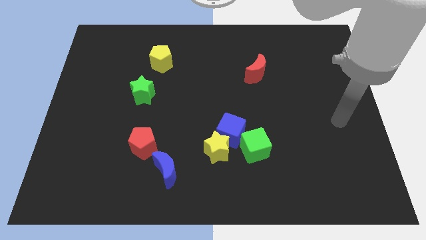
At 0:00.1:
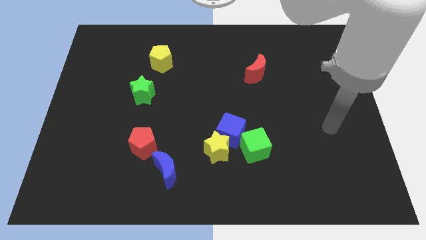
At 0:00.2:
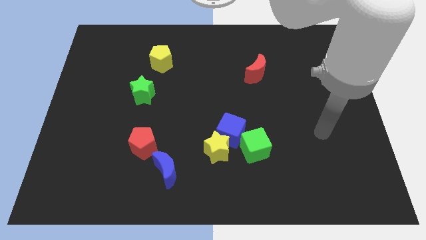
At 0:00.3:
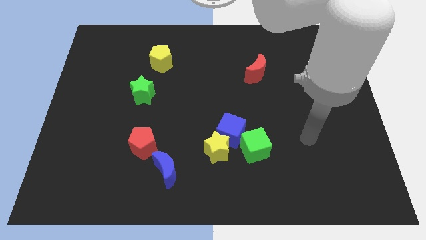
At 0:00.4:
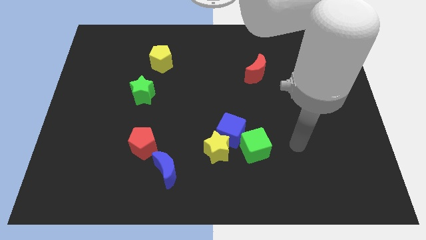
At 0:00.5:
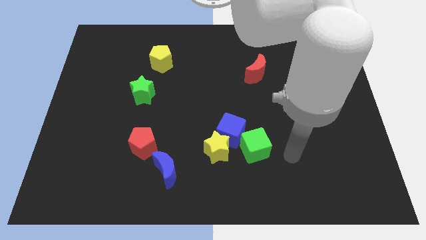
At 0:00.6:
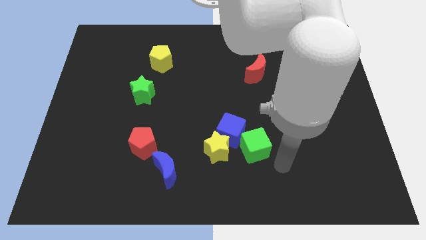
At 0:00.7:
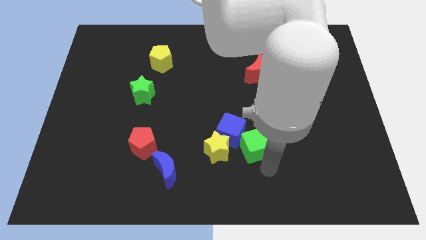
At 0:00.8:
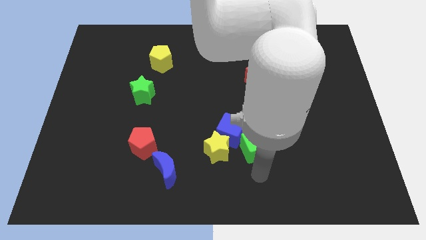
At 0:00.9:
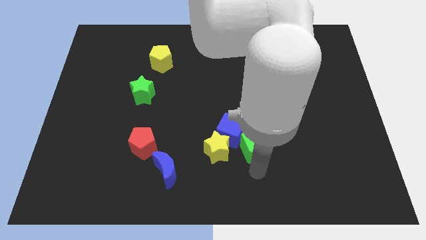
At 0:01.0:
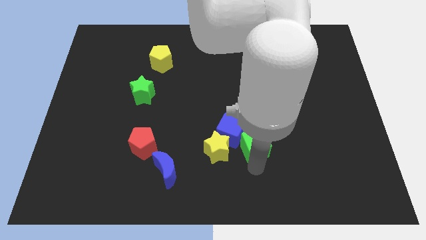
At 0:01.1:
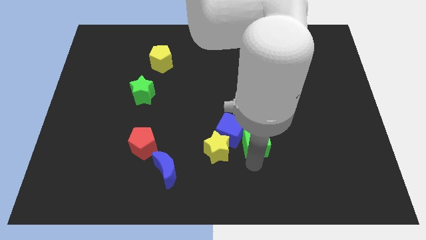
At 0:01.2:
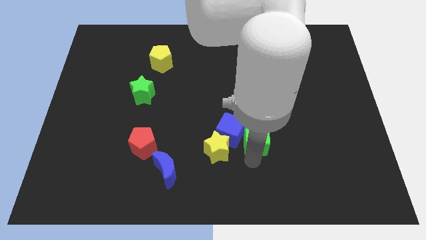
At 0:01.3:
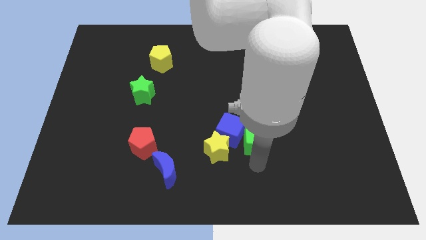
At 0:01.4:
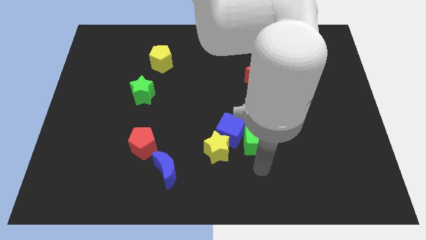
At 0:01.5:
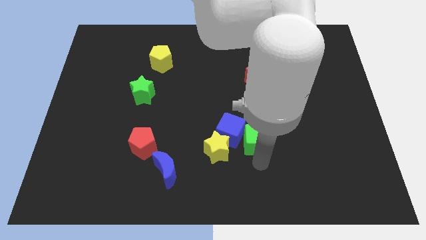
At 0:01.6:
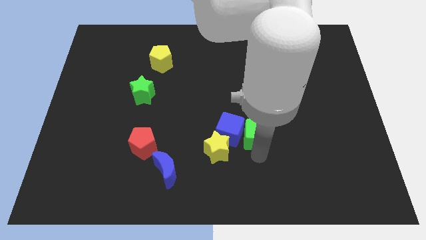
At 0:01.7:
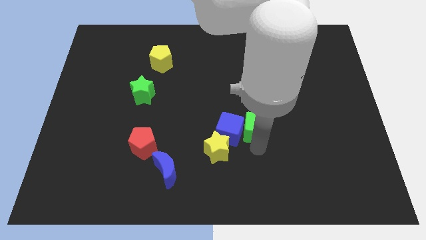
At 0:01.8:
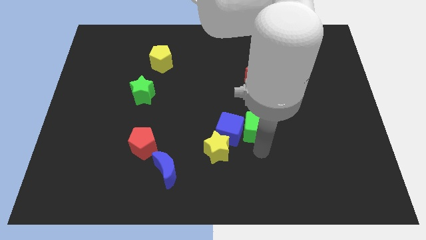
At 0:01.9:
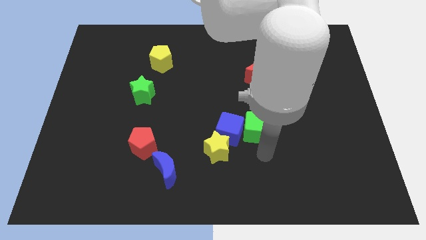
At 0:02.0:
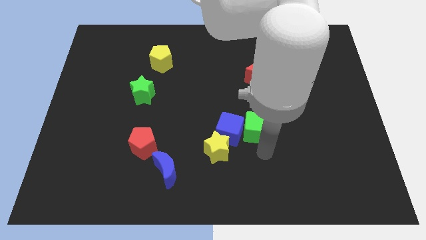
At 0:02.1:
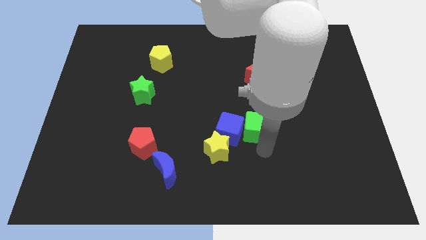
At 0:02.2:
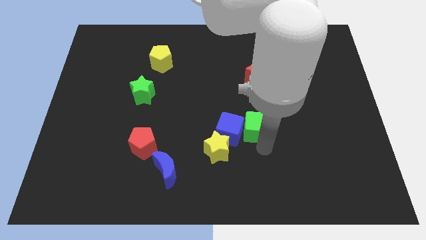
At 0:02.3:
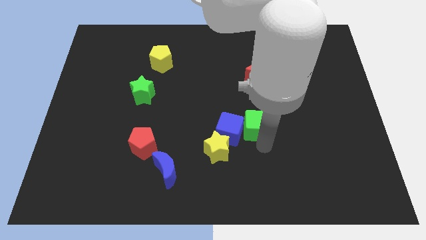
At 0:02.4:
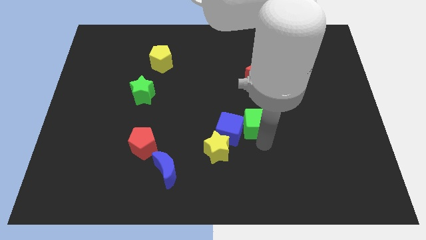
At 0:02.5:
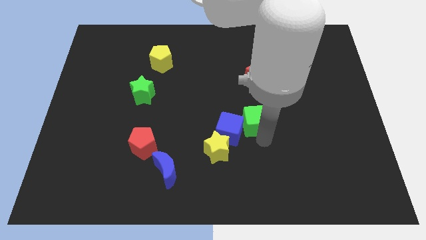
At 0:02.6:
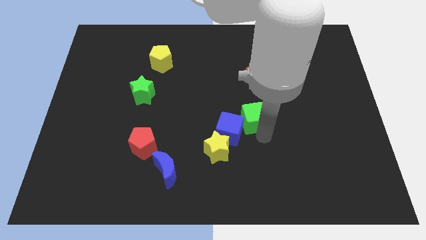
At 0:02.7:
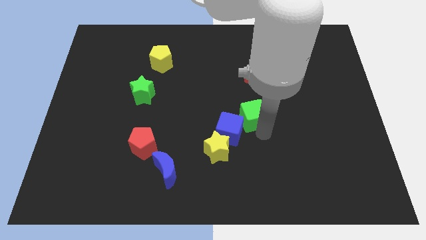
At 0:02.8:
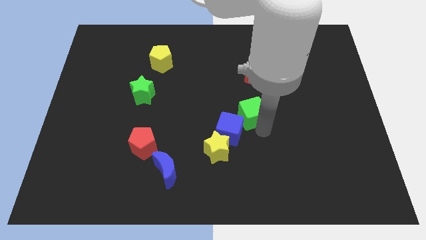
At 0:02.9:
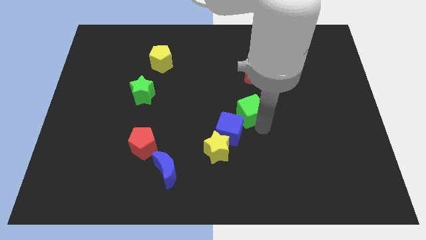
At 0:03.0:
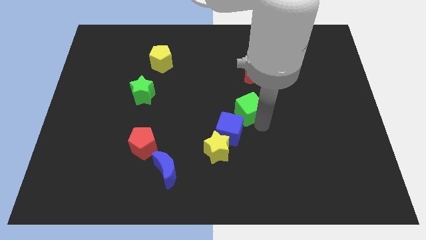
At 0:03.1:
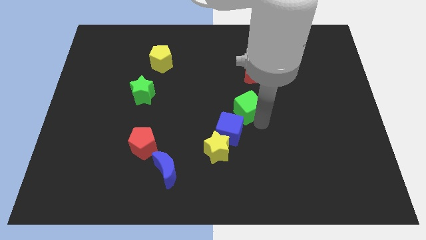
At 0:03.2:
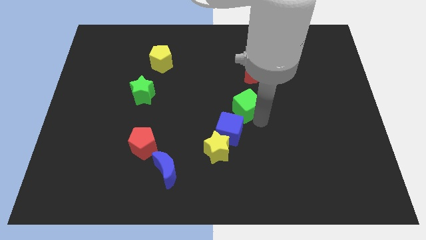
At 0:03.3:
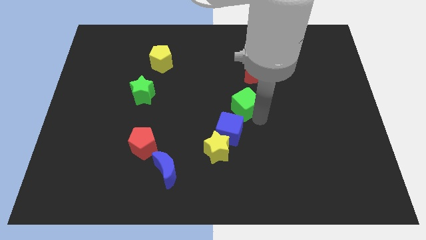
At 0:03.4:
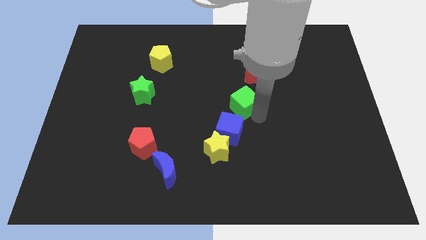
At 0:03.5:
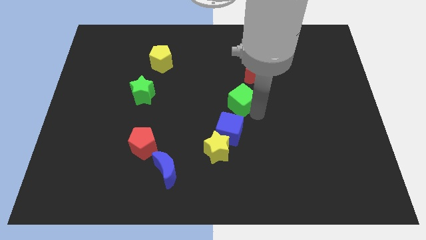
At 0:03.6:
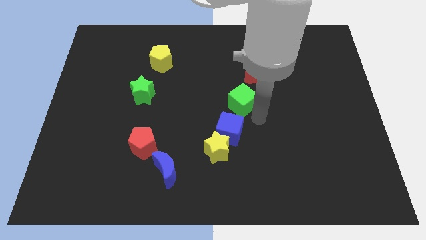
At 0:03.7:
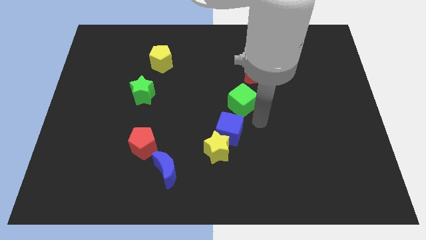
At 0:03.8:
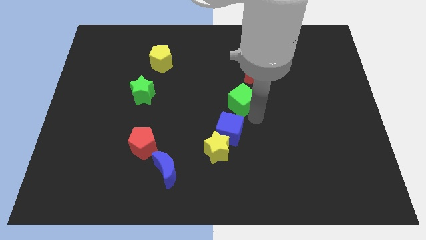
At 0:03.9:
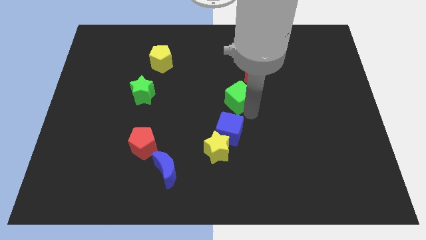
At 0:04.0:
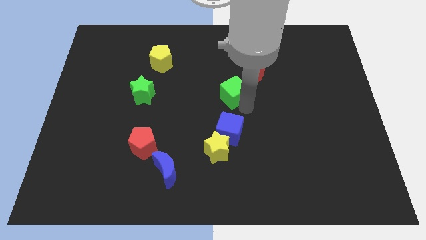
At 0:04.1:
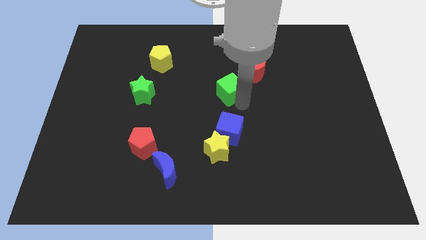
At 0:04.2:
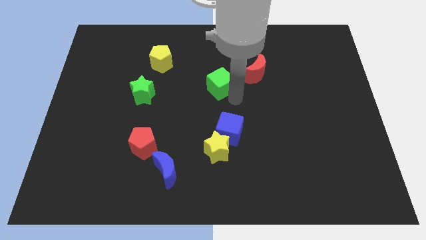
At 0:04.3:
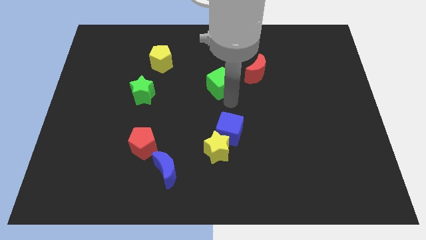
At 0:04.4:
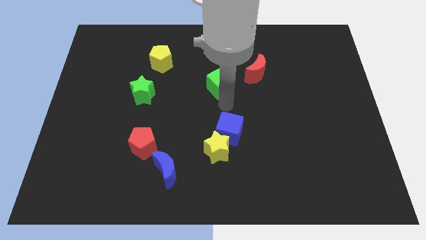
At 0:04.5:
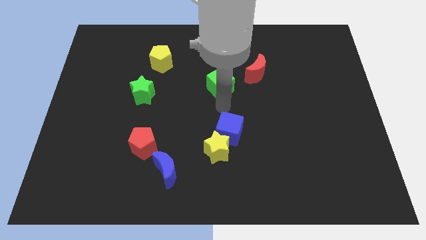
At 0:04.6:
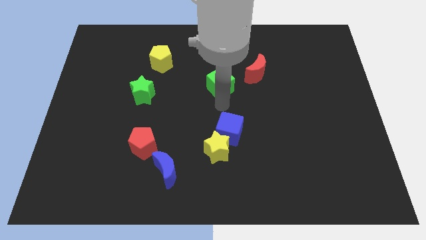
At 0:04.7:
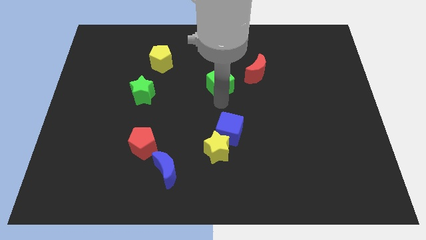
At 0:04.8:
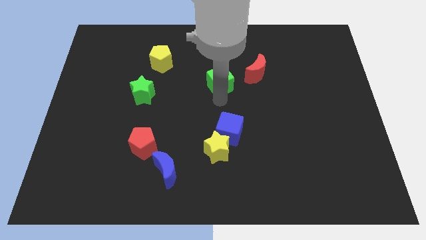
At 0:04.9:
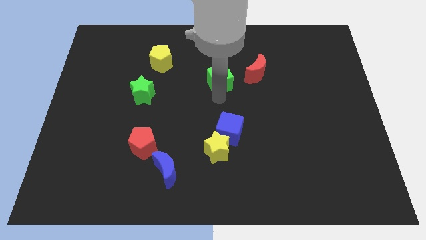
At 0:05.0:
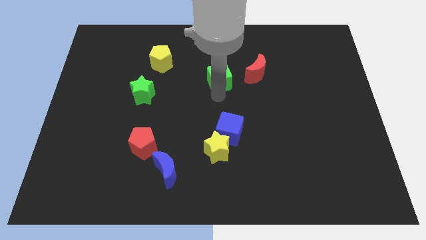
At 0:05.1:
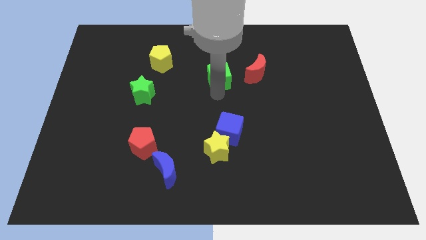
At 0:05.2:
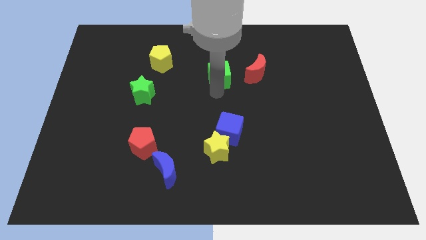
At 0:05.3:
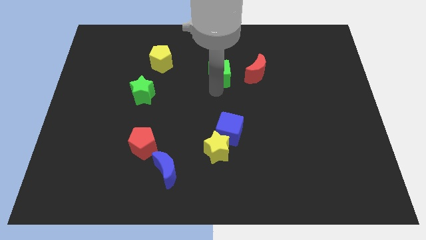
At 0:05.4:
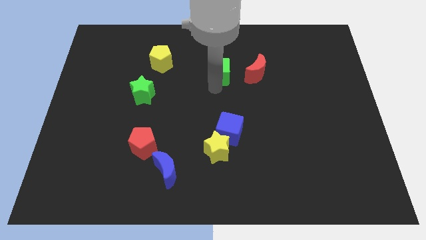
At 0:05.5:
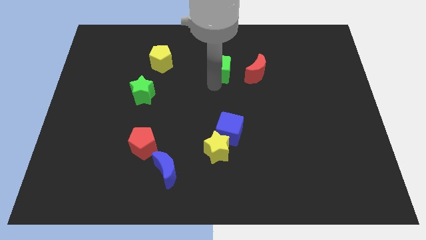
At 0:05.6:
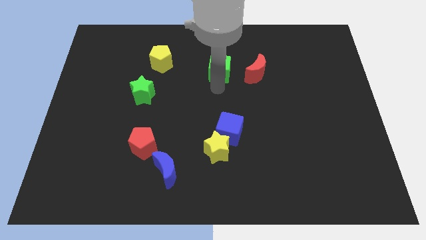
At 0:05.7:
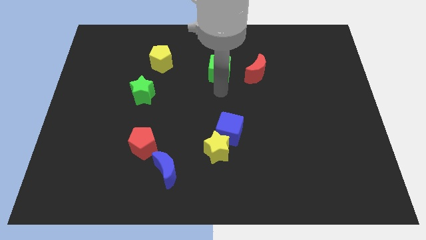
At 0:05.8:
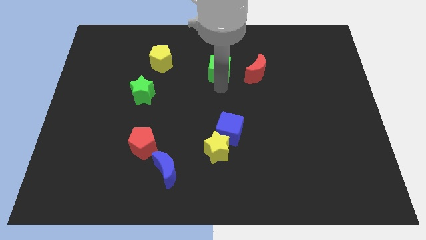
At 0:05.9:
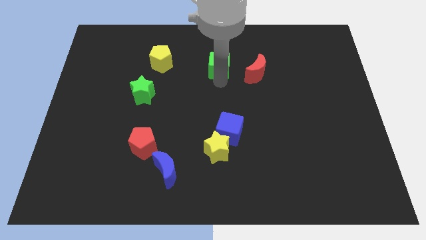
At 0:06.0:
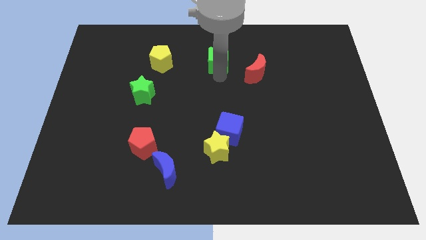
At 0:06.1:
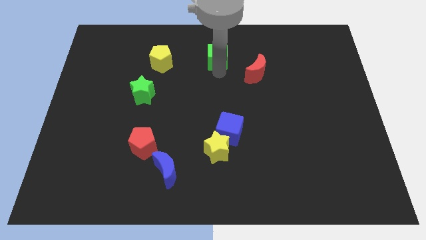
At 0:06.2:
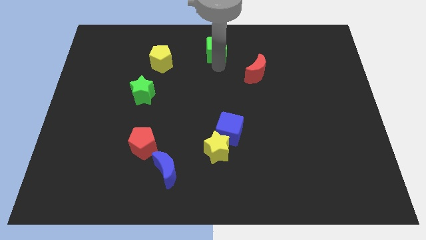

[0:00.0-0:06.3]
push the green cube to the top side
